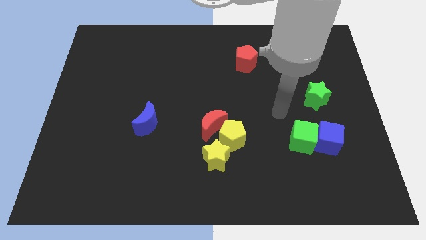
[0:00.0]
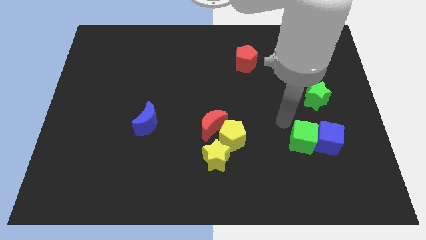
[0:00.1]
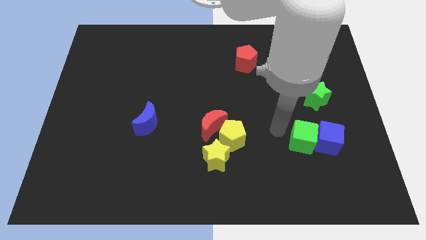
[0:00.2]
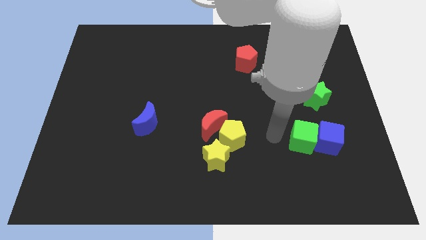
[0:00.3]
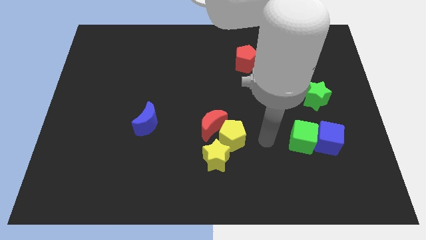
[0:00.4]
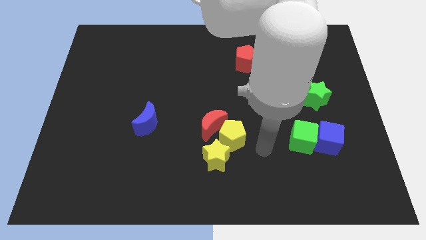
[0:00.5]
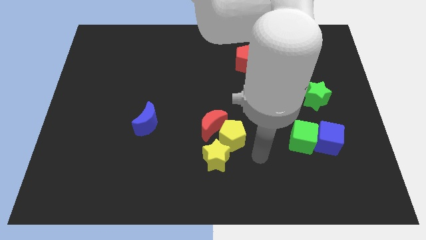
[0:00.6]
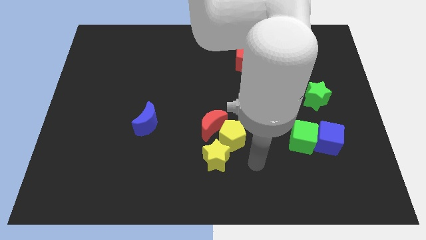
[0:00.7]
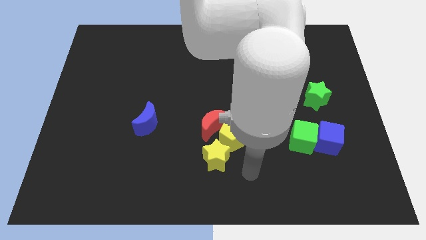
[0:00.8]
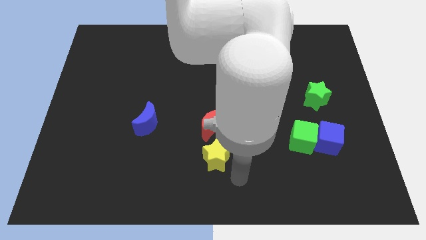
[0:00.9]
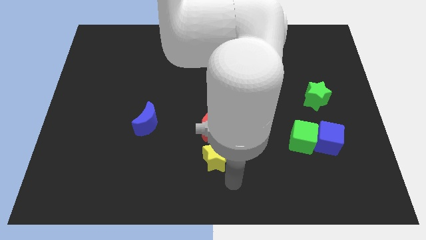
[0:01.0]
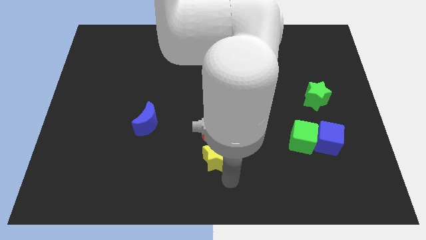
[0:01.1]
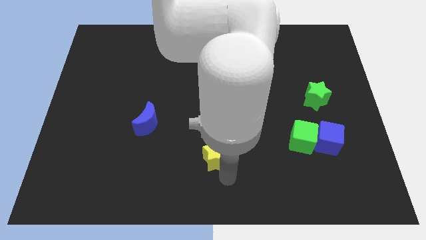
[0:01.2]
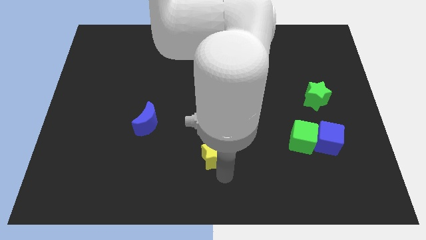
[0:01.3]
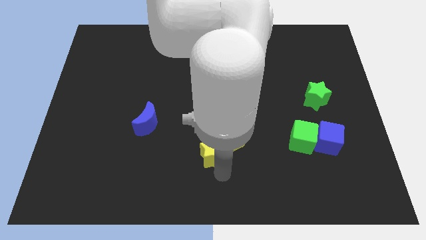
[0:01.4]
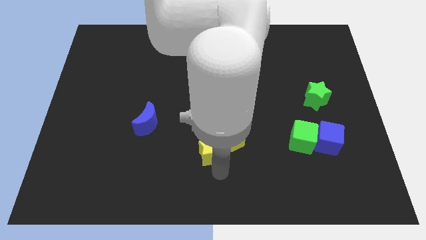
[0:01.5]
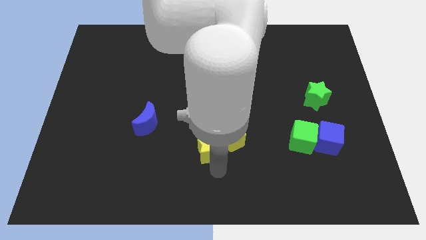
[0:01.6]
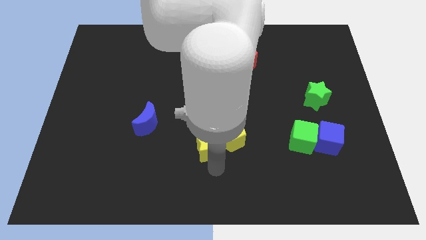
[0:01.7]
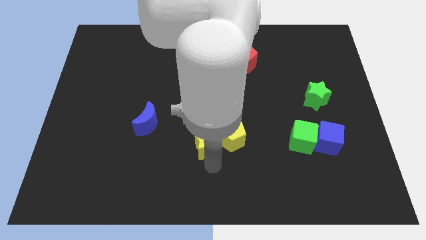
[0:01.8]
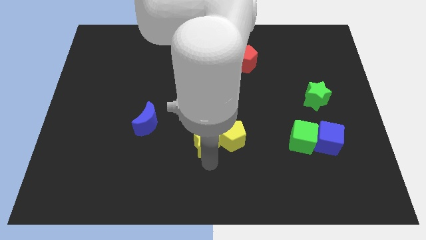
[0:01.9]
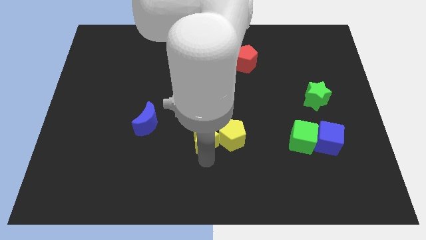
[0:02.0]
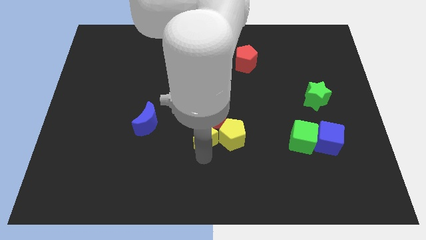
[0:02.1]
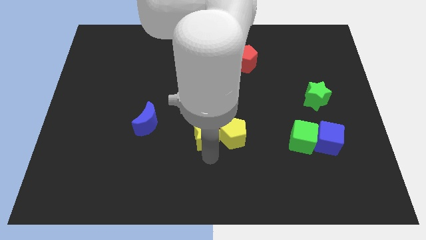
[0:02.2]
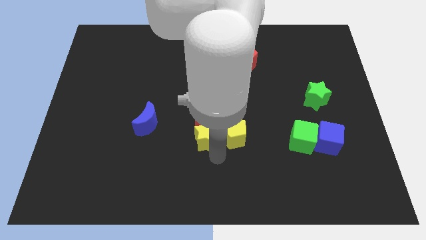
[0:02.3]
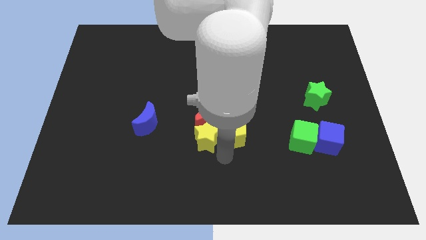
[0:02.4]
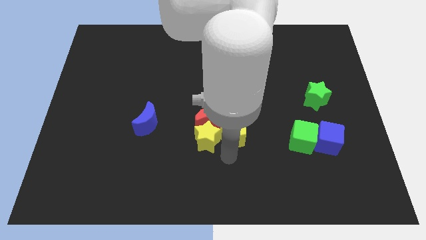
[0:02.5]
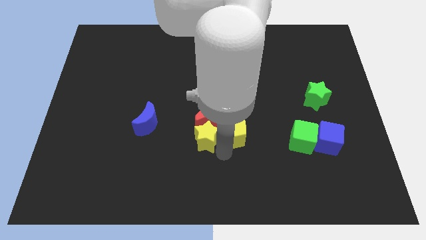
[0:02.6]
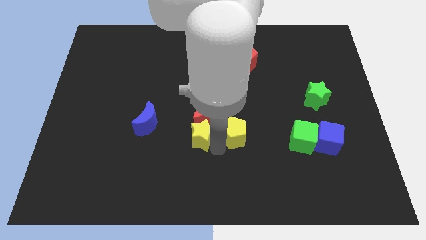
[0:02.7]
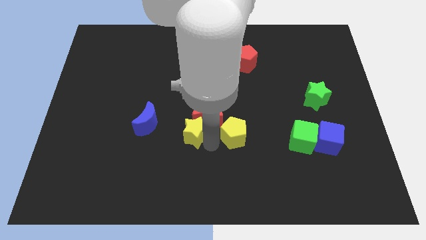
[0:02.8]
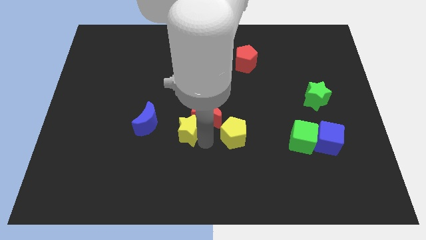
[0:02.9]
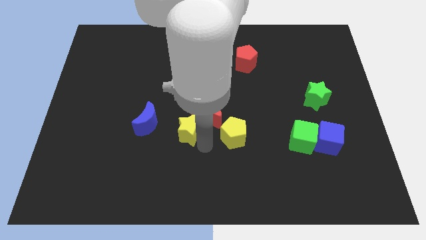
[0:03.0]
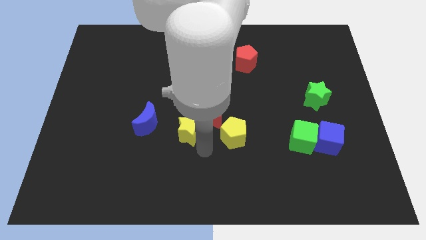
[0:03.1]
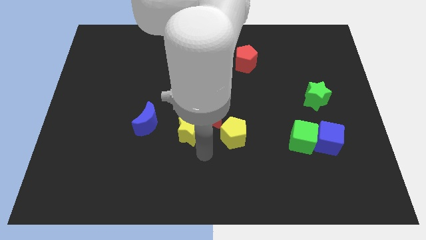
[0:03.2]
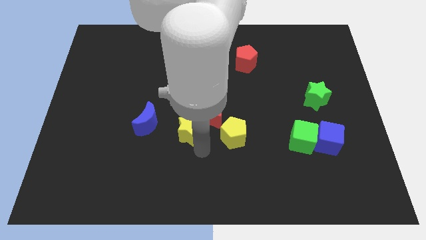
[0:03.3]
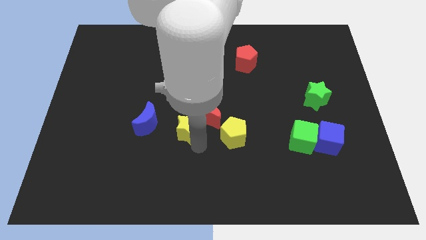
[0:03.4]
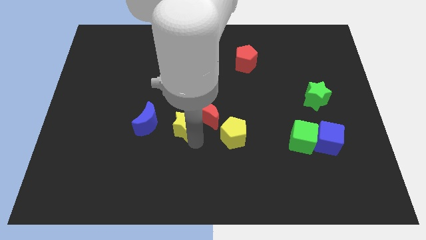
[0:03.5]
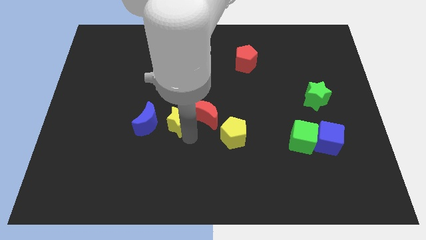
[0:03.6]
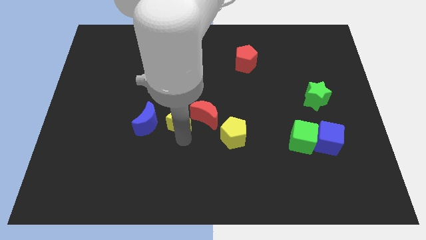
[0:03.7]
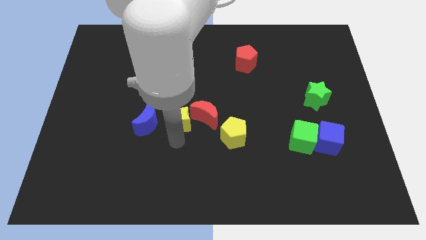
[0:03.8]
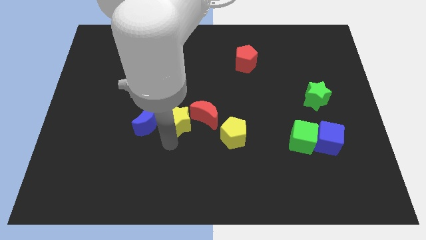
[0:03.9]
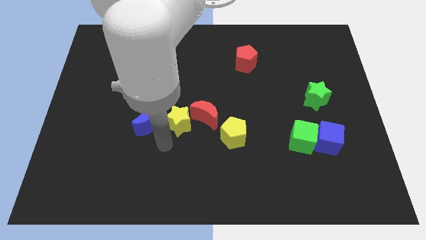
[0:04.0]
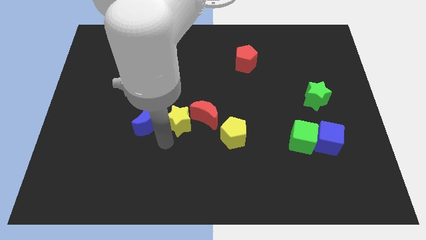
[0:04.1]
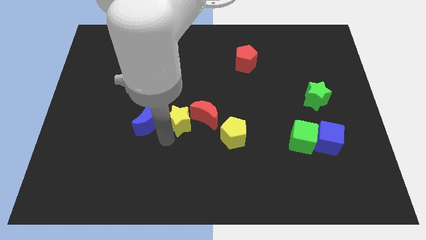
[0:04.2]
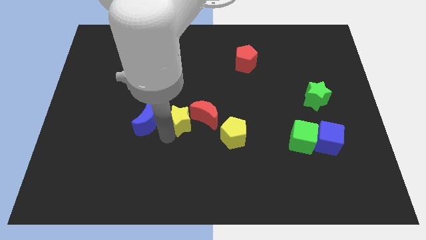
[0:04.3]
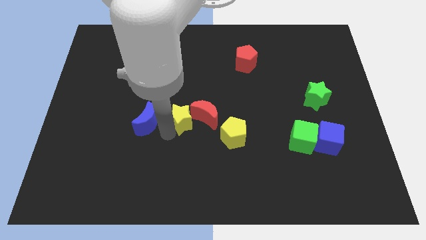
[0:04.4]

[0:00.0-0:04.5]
move the yellow star a little upwards

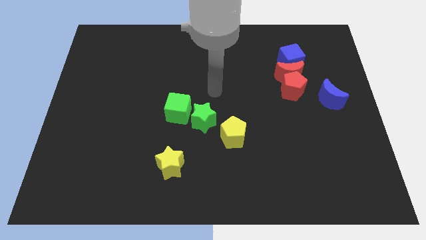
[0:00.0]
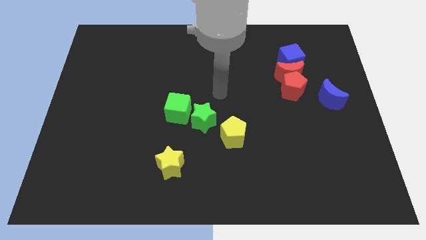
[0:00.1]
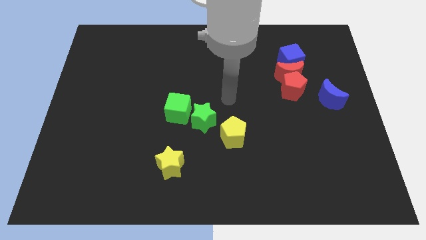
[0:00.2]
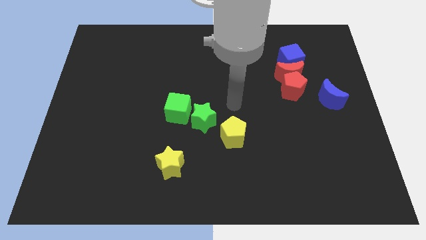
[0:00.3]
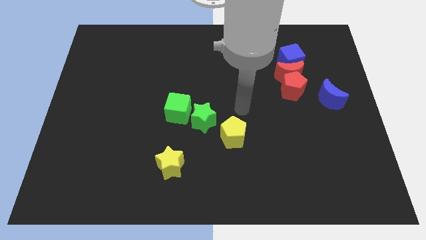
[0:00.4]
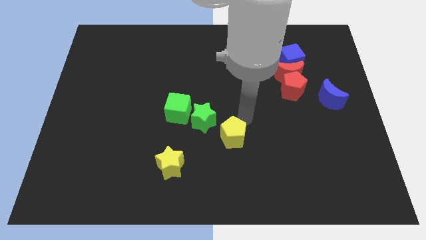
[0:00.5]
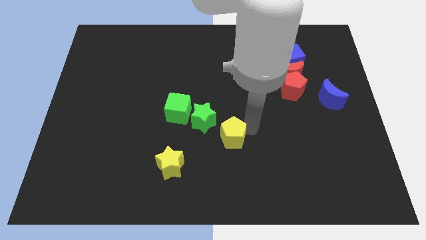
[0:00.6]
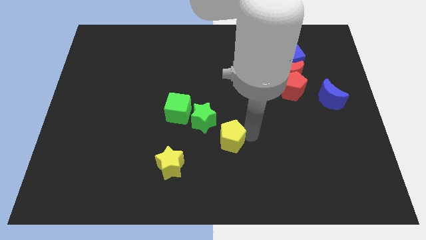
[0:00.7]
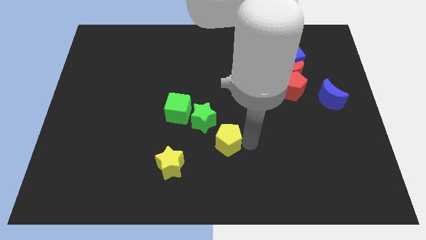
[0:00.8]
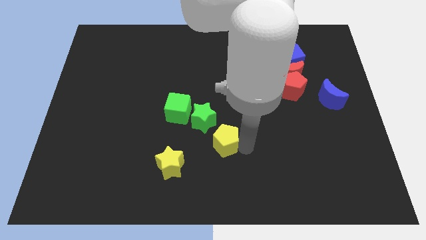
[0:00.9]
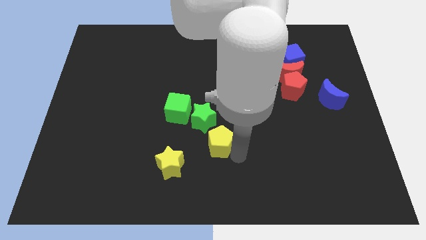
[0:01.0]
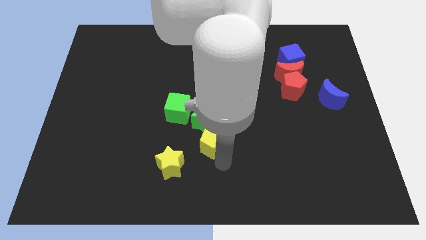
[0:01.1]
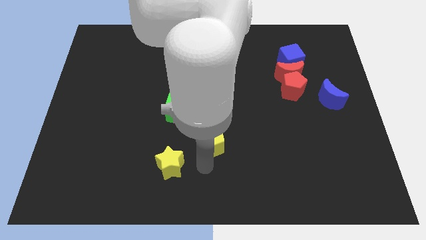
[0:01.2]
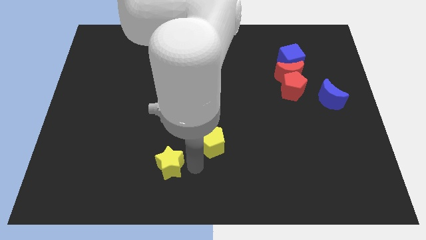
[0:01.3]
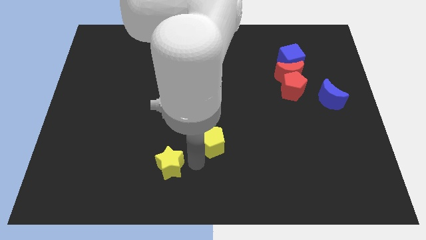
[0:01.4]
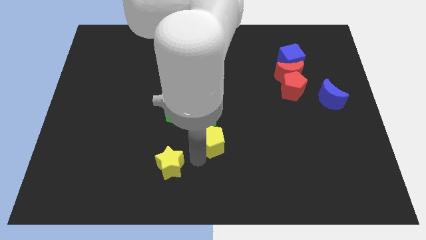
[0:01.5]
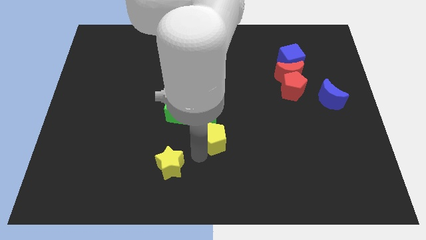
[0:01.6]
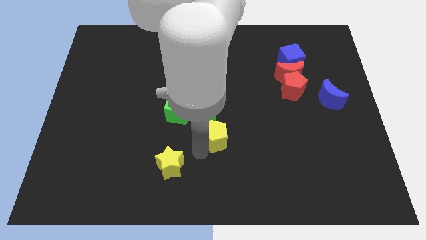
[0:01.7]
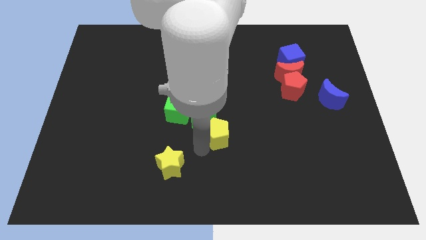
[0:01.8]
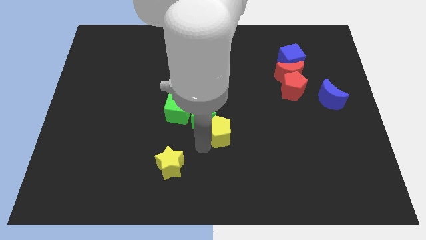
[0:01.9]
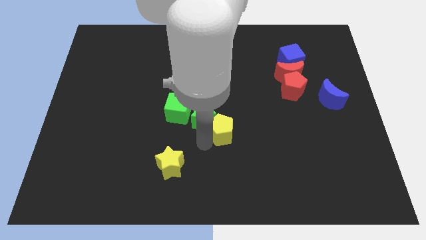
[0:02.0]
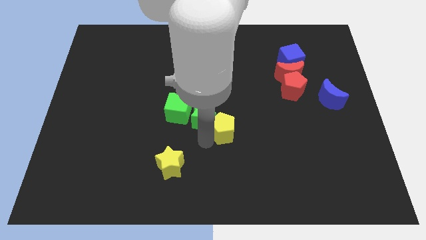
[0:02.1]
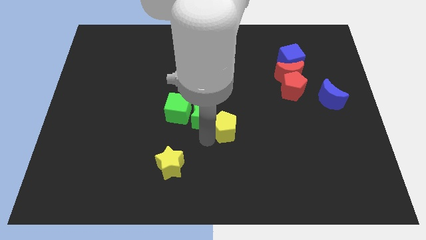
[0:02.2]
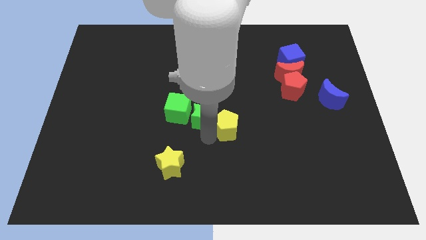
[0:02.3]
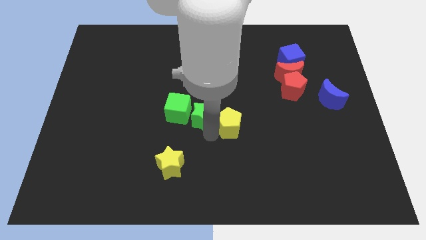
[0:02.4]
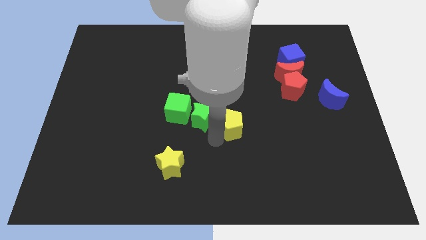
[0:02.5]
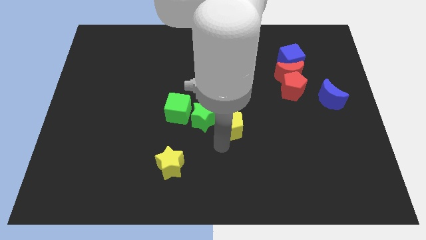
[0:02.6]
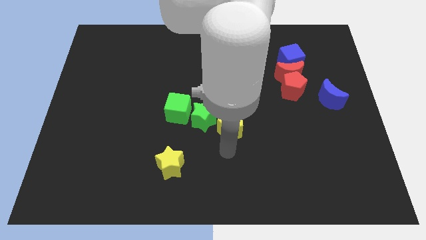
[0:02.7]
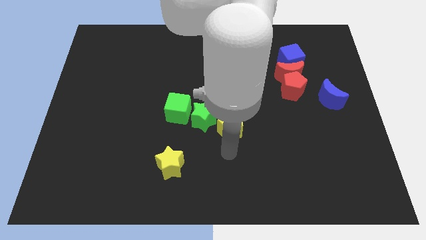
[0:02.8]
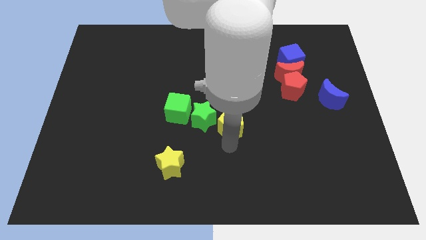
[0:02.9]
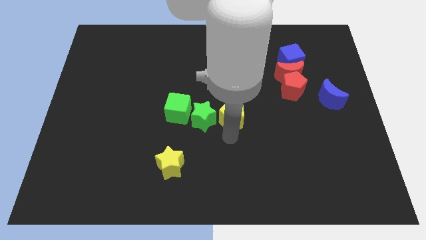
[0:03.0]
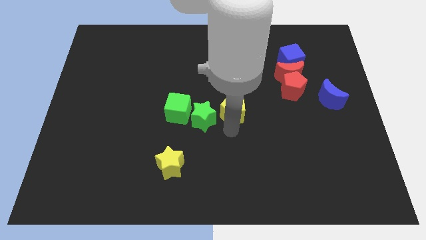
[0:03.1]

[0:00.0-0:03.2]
slightly slide the yellow pentagon up

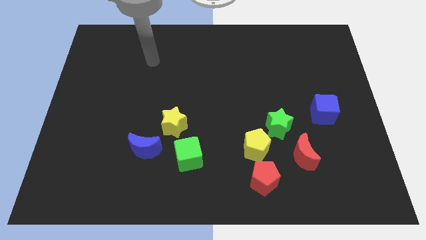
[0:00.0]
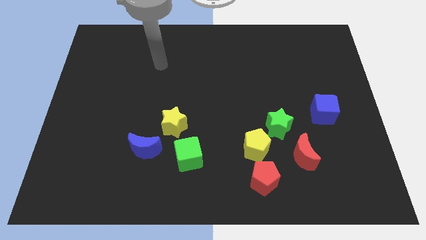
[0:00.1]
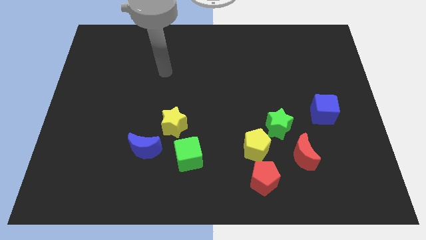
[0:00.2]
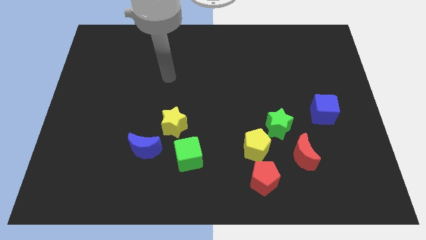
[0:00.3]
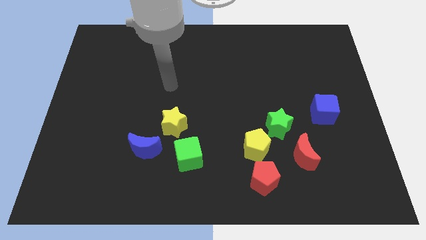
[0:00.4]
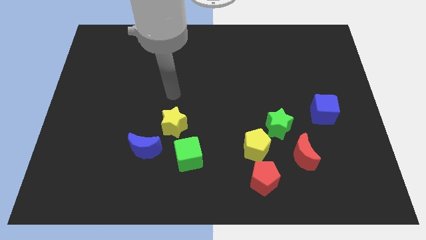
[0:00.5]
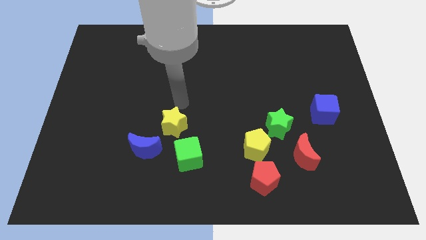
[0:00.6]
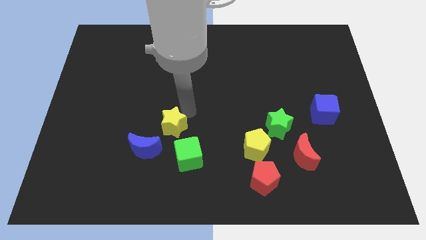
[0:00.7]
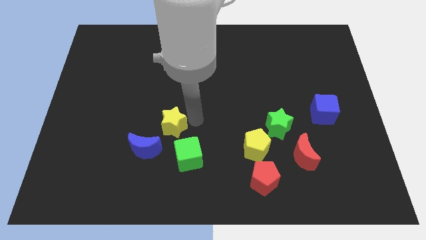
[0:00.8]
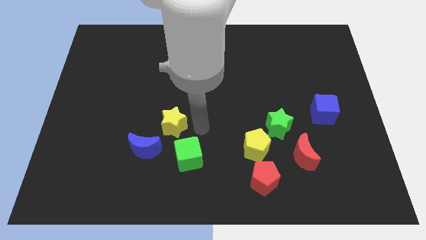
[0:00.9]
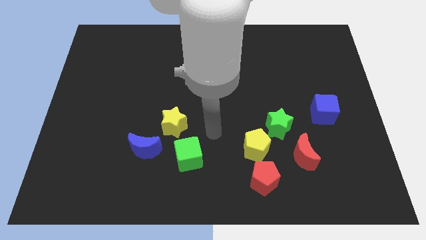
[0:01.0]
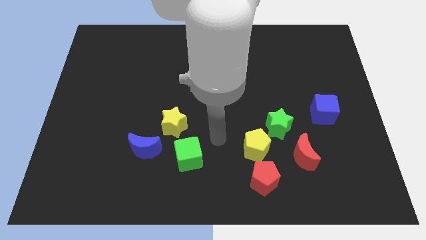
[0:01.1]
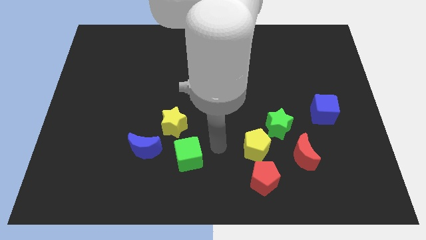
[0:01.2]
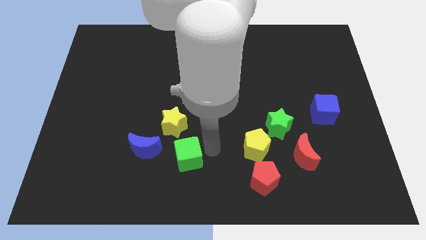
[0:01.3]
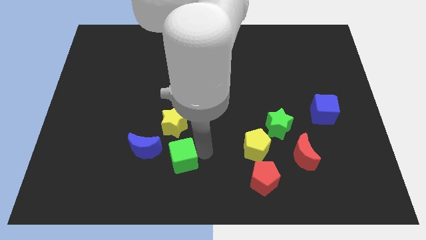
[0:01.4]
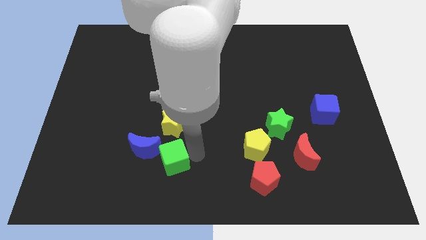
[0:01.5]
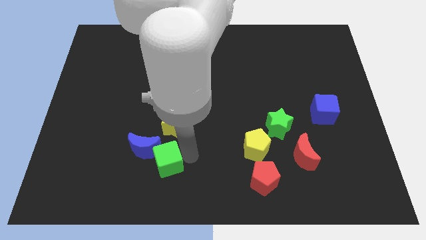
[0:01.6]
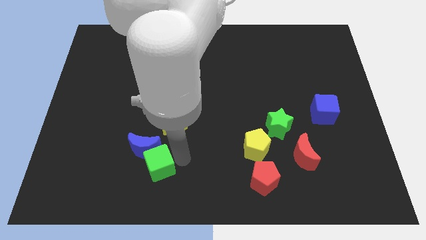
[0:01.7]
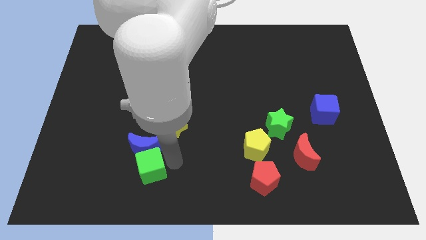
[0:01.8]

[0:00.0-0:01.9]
push the green cube left slightly
